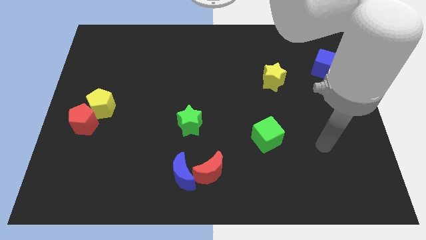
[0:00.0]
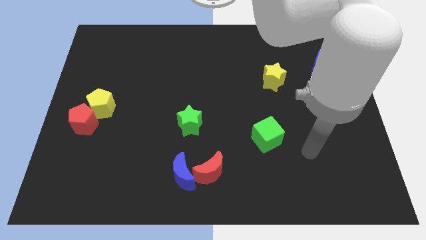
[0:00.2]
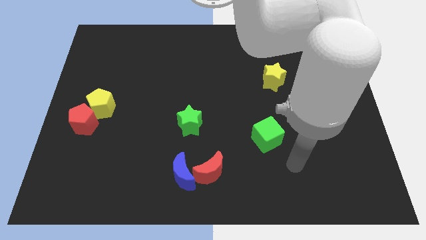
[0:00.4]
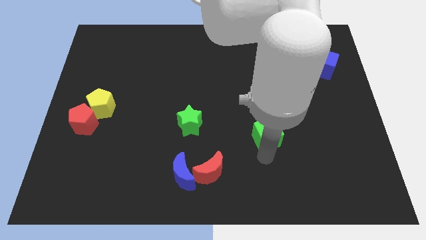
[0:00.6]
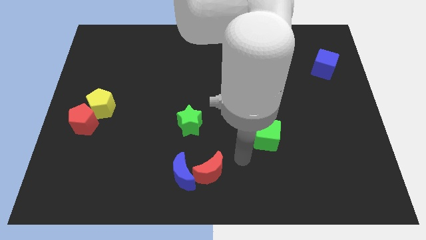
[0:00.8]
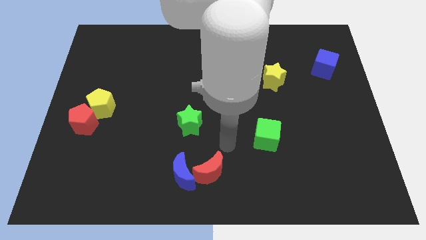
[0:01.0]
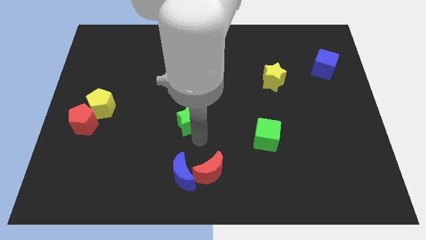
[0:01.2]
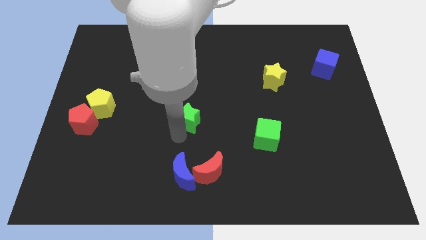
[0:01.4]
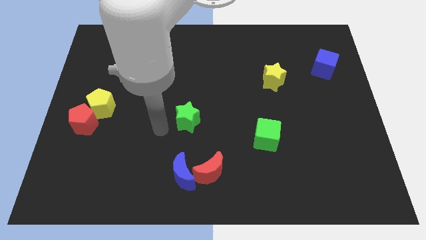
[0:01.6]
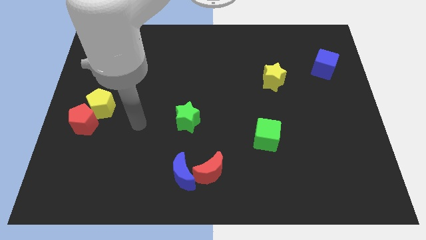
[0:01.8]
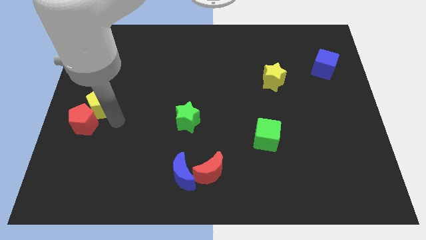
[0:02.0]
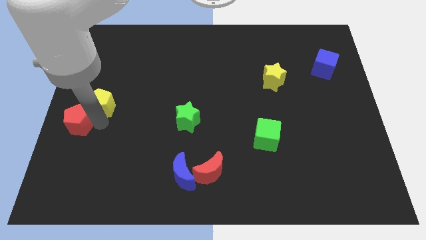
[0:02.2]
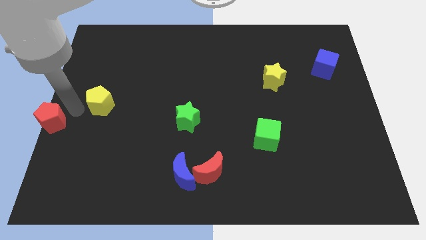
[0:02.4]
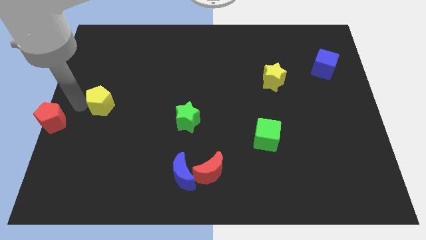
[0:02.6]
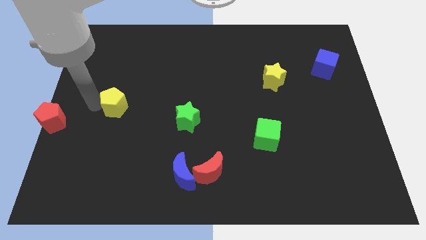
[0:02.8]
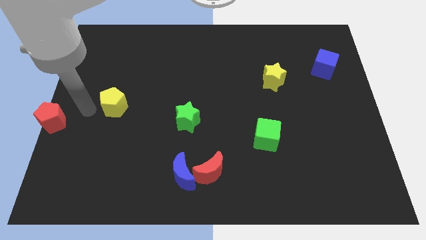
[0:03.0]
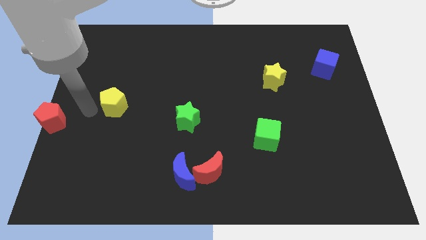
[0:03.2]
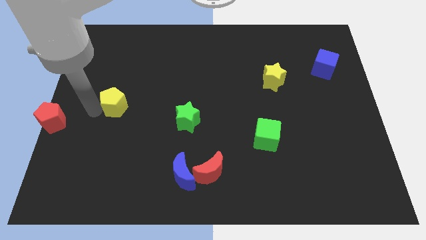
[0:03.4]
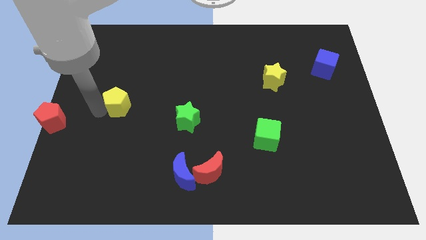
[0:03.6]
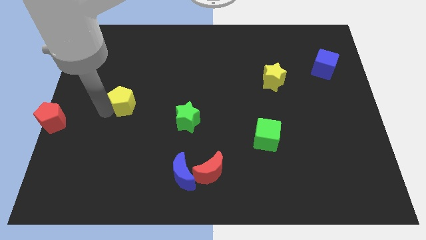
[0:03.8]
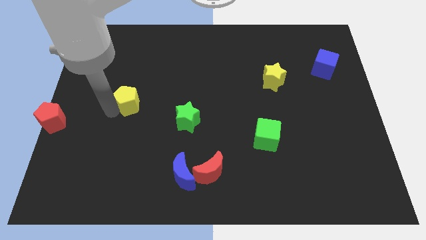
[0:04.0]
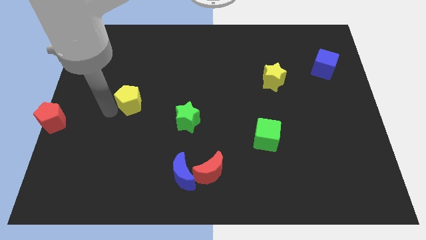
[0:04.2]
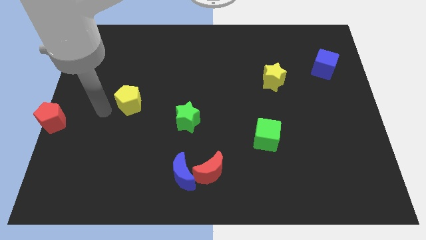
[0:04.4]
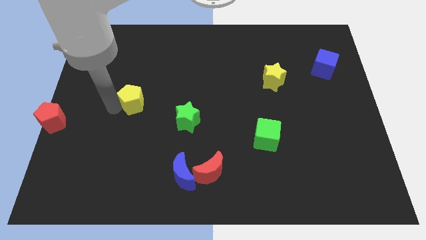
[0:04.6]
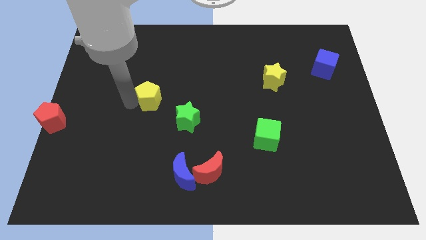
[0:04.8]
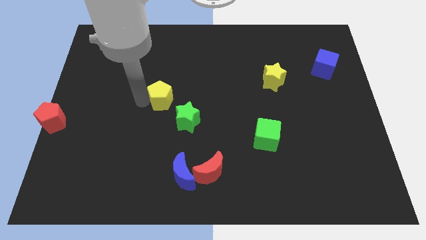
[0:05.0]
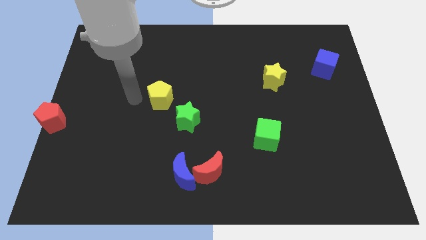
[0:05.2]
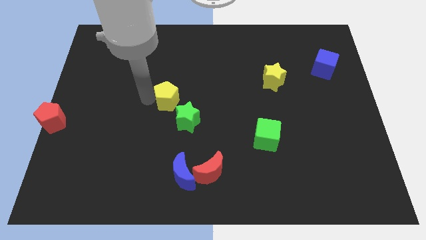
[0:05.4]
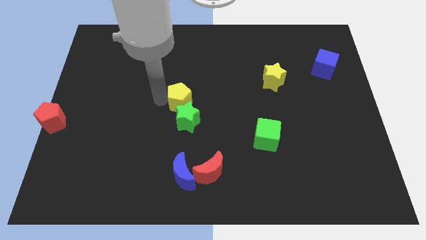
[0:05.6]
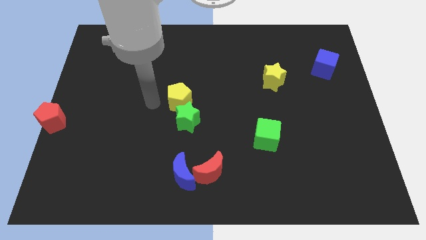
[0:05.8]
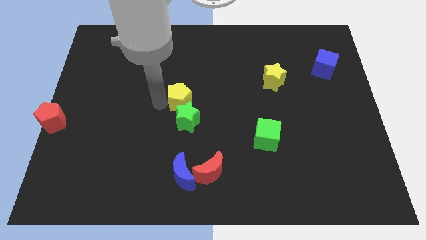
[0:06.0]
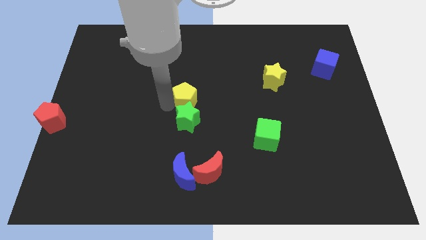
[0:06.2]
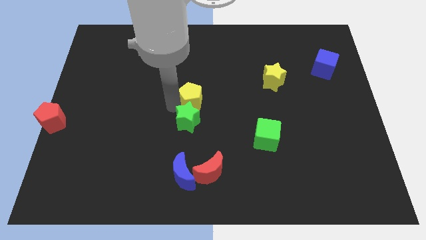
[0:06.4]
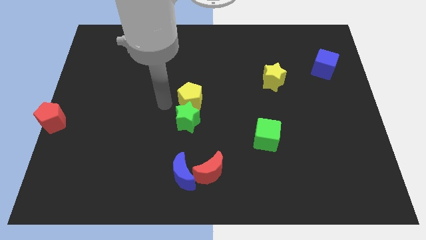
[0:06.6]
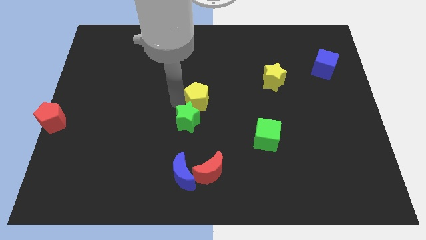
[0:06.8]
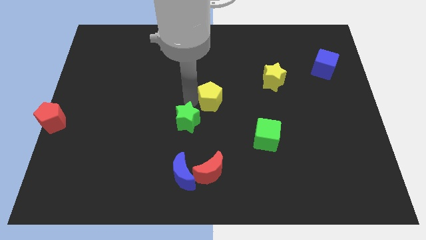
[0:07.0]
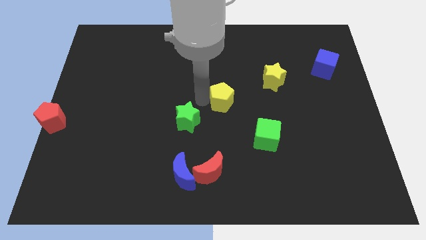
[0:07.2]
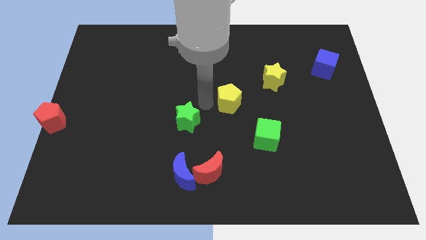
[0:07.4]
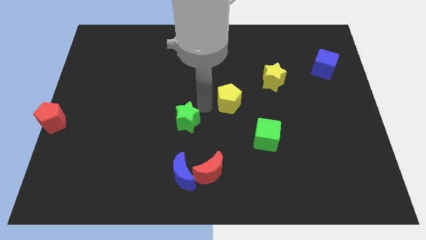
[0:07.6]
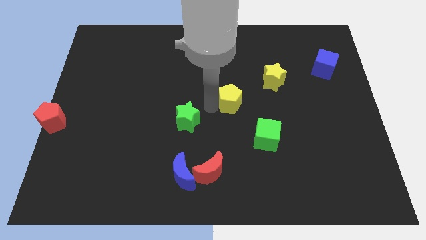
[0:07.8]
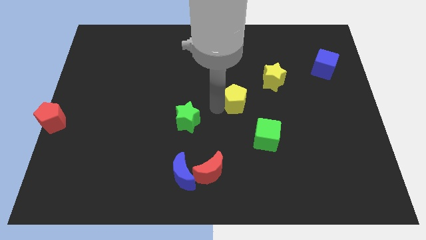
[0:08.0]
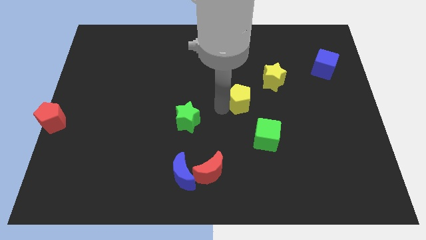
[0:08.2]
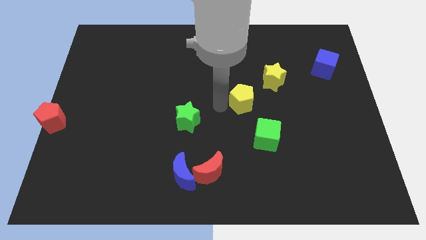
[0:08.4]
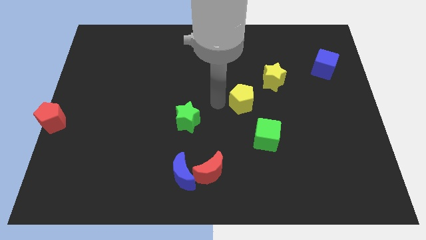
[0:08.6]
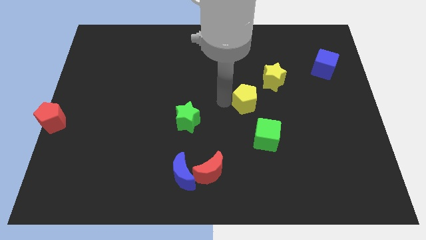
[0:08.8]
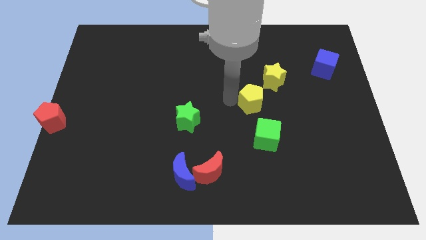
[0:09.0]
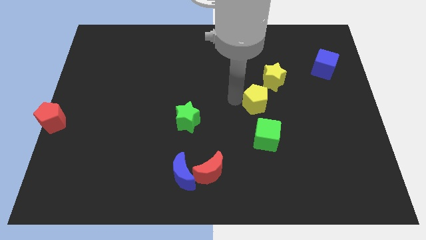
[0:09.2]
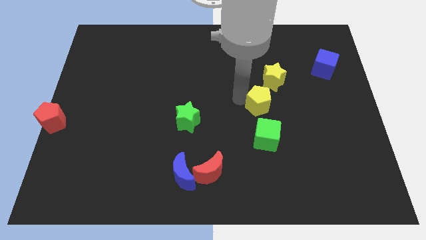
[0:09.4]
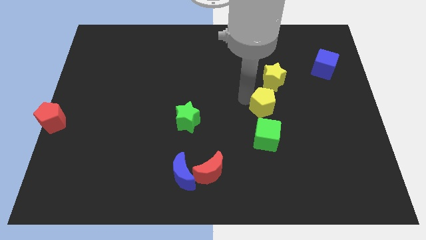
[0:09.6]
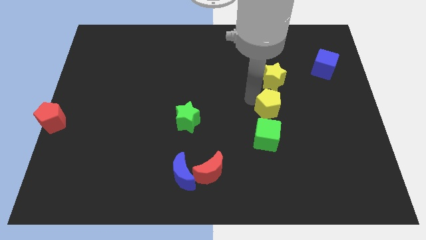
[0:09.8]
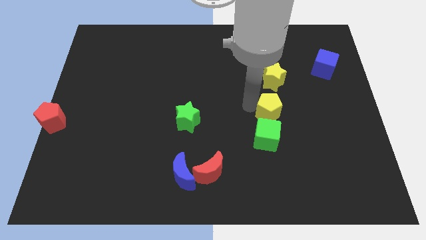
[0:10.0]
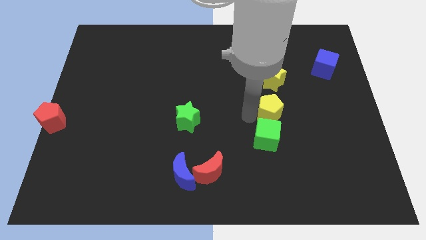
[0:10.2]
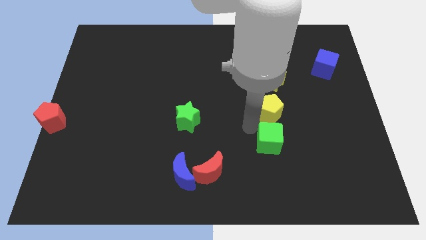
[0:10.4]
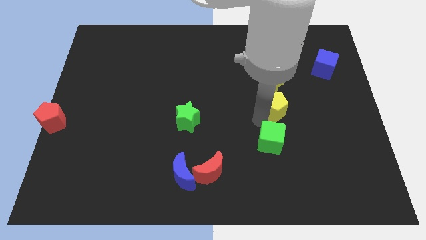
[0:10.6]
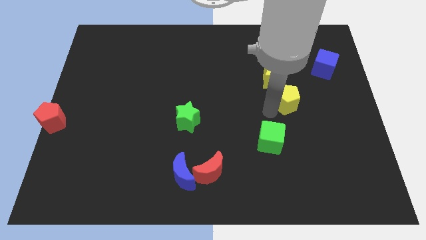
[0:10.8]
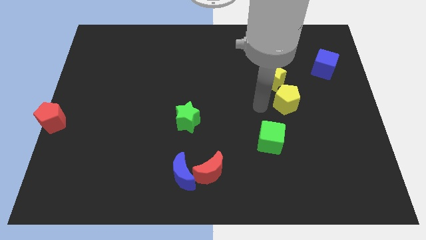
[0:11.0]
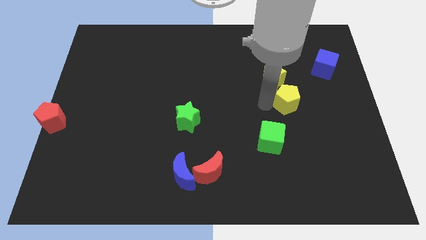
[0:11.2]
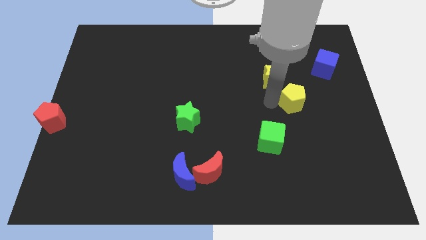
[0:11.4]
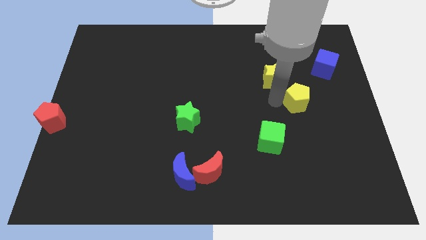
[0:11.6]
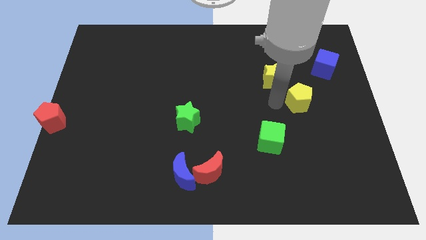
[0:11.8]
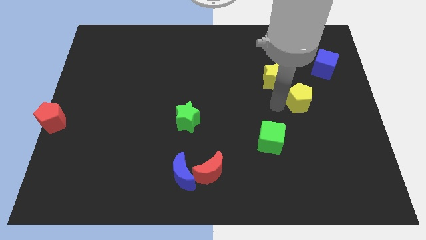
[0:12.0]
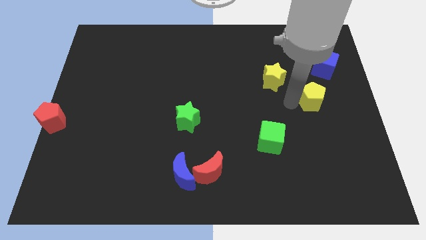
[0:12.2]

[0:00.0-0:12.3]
slide the yellow pentagon to the bottom of the blue cube
